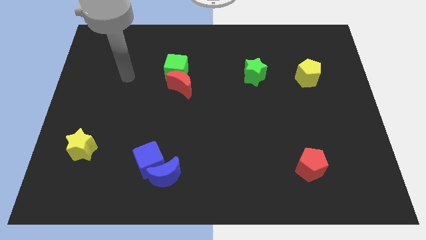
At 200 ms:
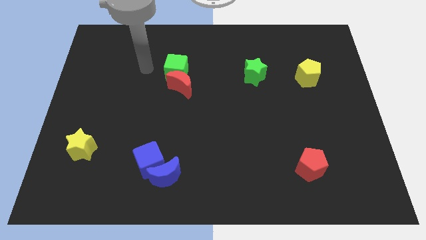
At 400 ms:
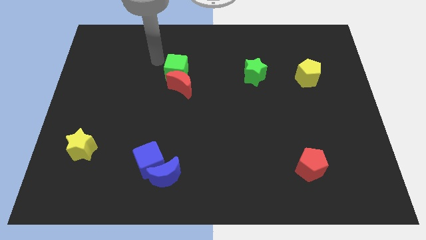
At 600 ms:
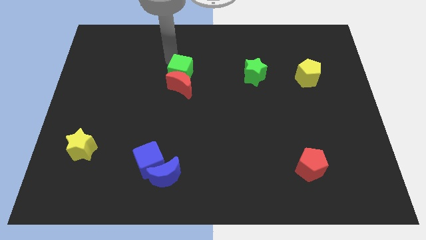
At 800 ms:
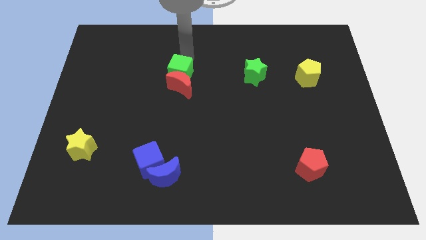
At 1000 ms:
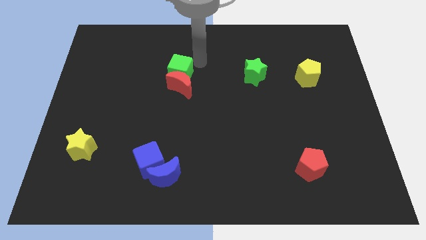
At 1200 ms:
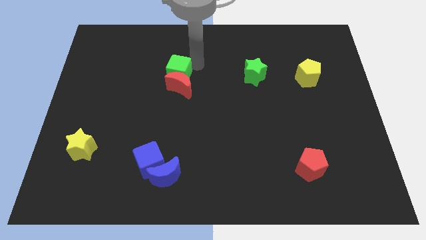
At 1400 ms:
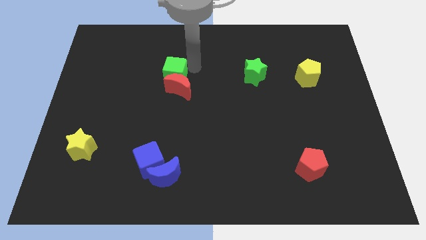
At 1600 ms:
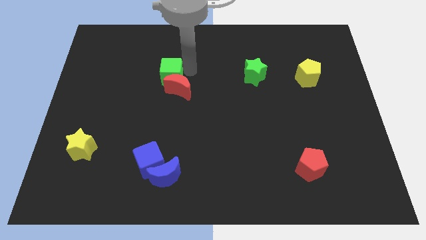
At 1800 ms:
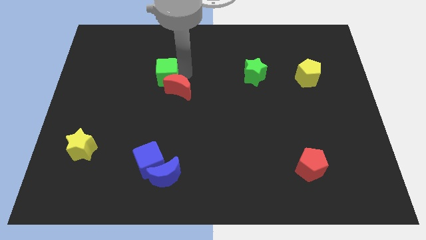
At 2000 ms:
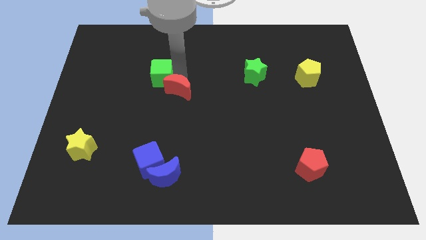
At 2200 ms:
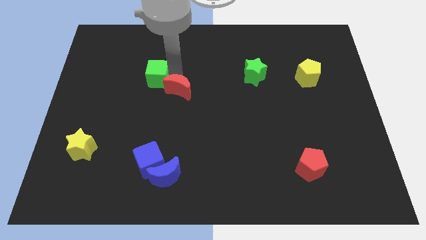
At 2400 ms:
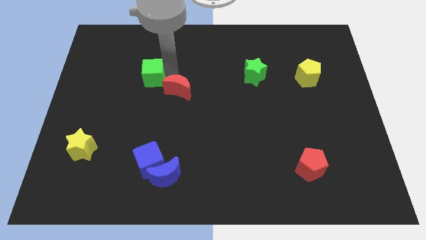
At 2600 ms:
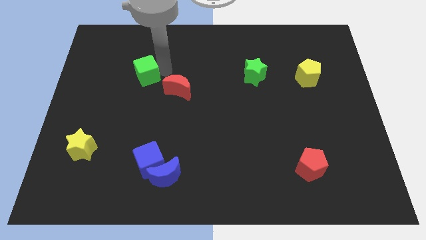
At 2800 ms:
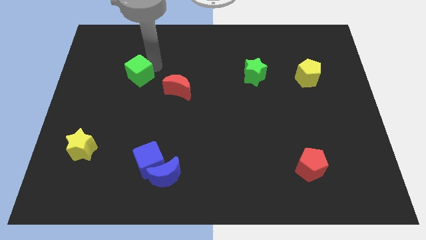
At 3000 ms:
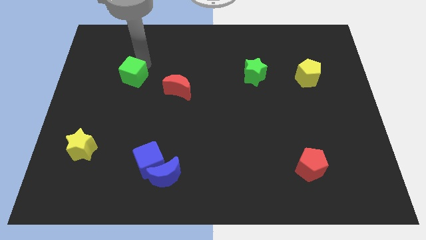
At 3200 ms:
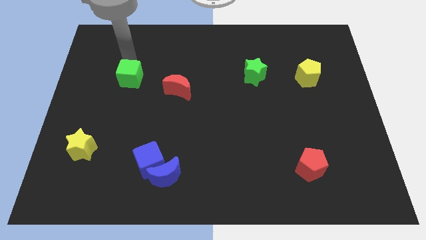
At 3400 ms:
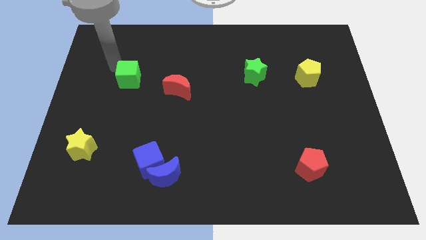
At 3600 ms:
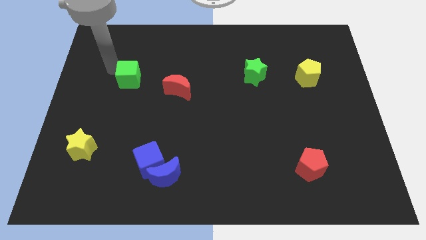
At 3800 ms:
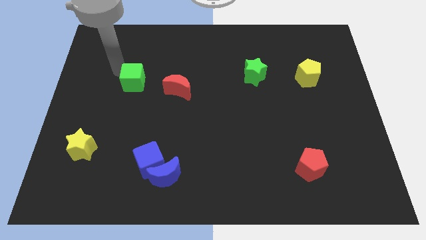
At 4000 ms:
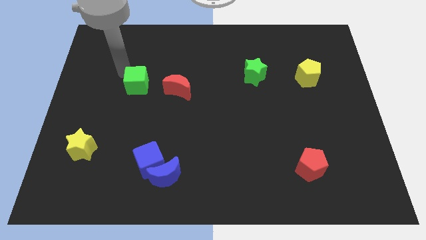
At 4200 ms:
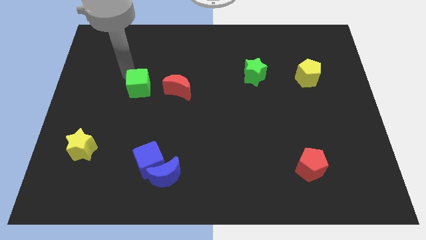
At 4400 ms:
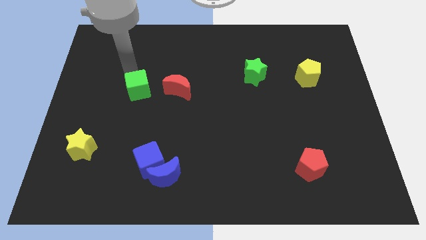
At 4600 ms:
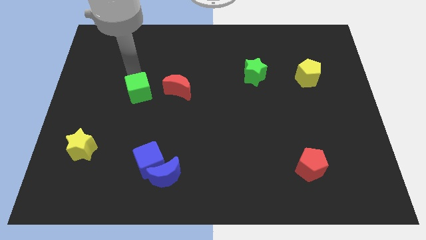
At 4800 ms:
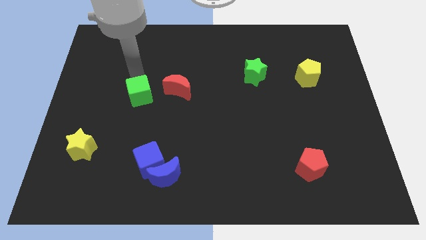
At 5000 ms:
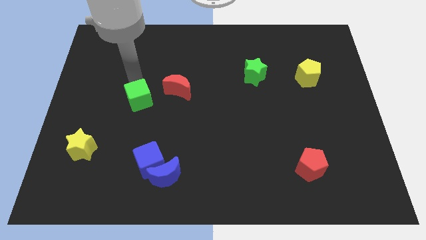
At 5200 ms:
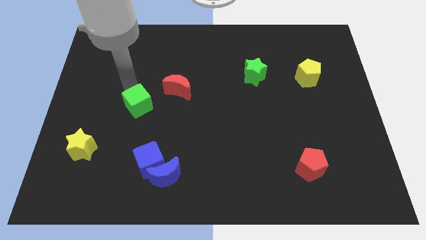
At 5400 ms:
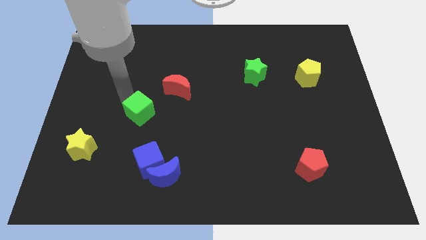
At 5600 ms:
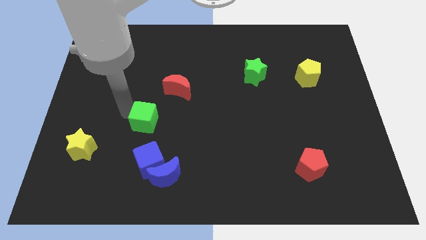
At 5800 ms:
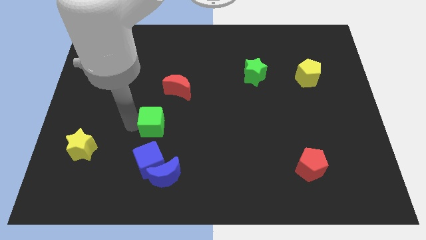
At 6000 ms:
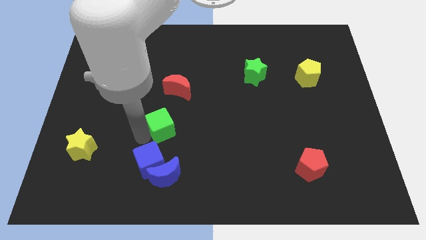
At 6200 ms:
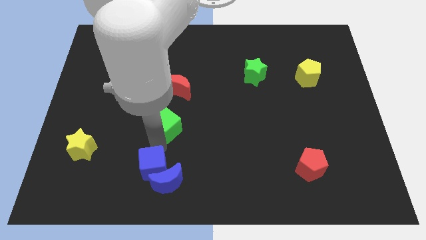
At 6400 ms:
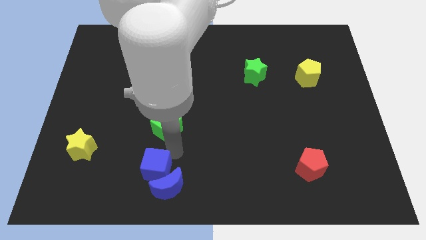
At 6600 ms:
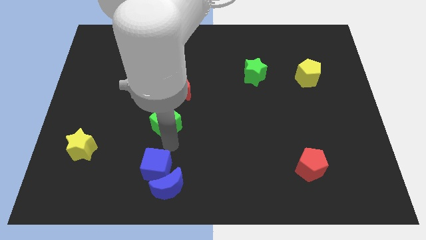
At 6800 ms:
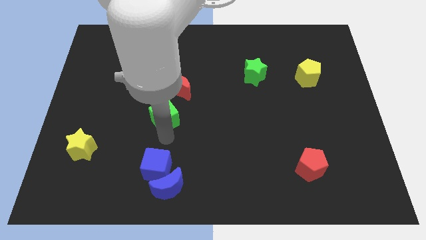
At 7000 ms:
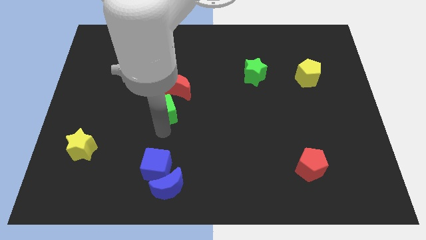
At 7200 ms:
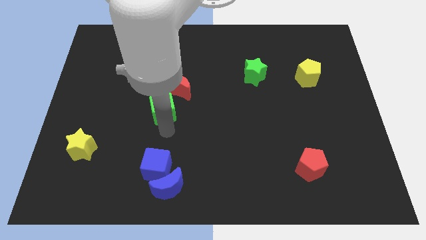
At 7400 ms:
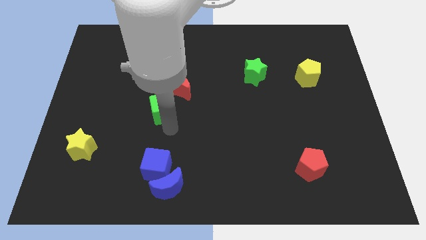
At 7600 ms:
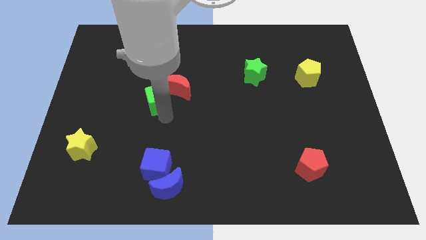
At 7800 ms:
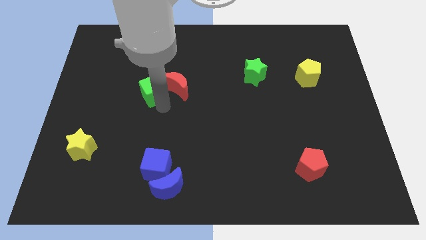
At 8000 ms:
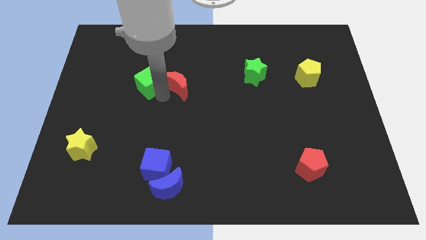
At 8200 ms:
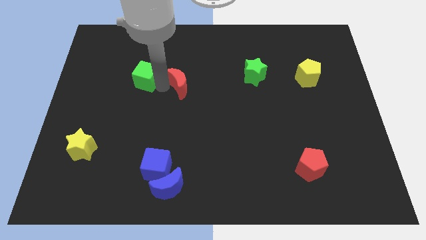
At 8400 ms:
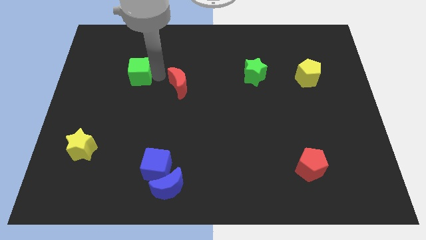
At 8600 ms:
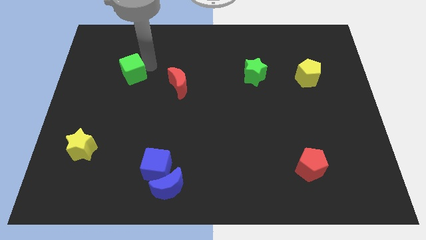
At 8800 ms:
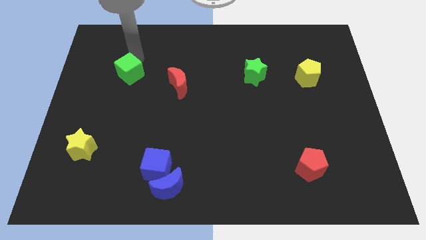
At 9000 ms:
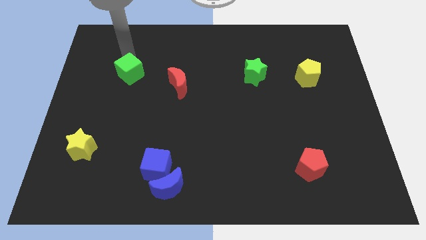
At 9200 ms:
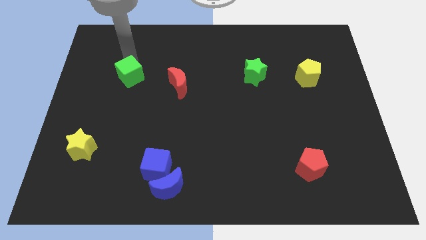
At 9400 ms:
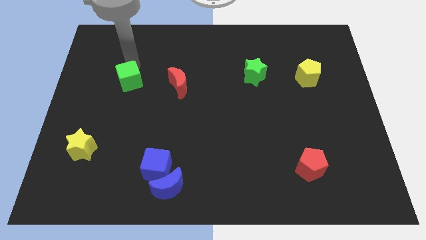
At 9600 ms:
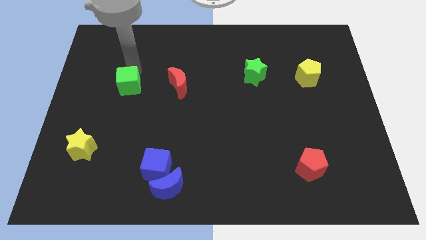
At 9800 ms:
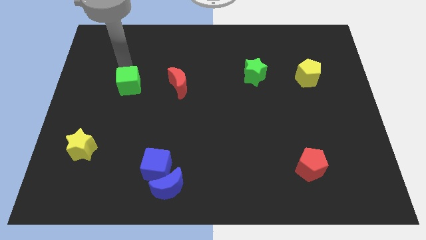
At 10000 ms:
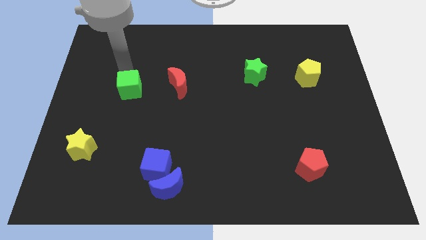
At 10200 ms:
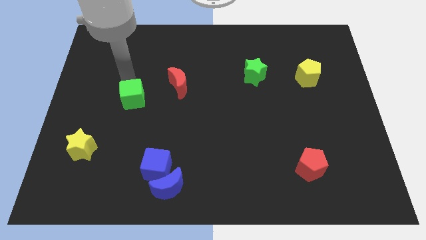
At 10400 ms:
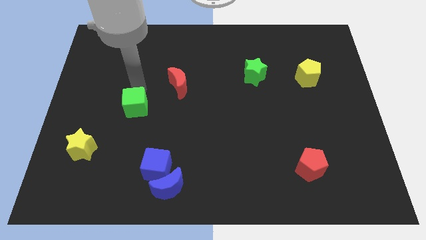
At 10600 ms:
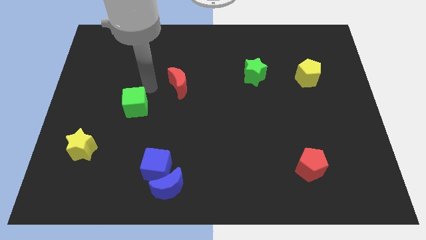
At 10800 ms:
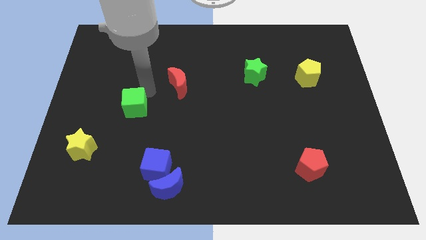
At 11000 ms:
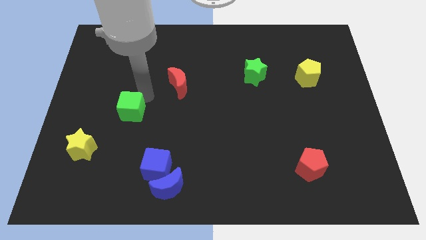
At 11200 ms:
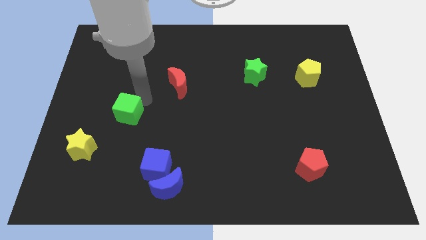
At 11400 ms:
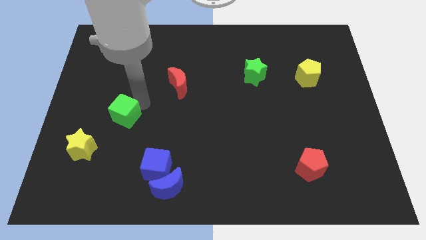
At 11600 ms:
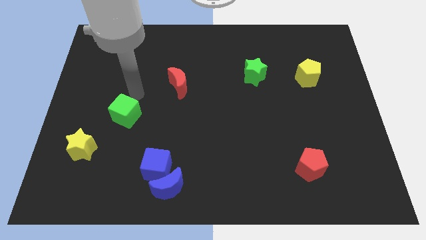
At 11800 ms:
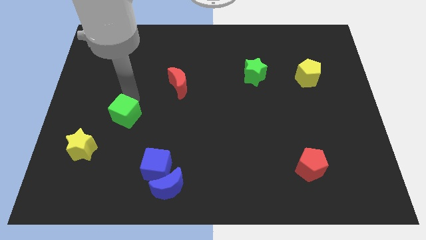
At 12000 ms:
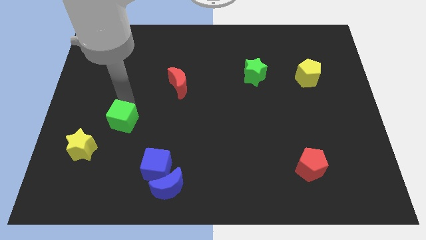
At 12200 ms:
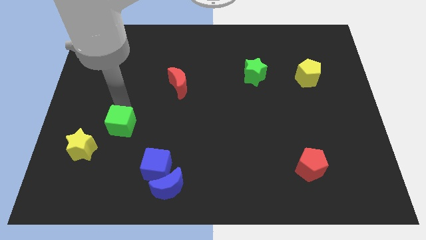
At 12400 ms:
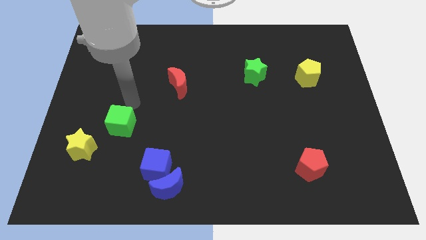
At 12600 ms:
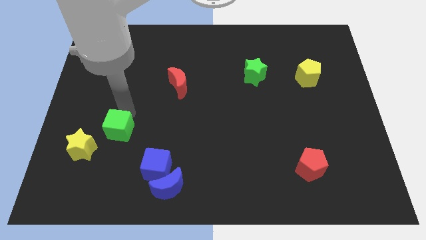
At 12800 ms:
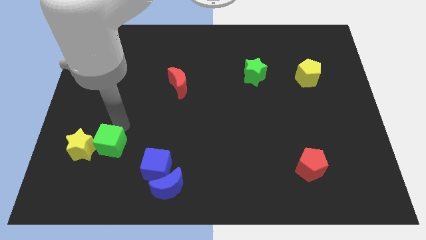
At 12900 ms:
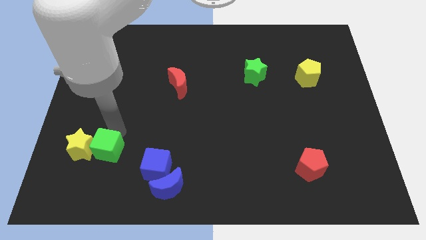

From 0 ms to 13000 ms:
put the green cube to the bottom right side of the yellow star
